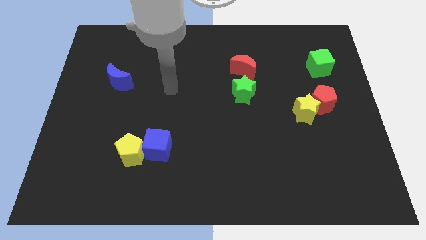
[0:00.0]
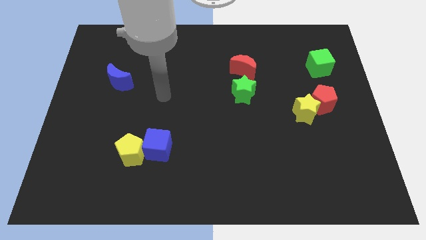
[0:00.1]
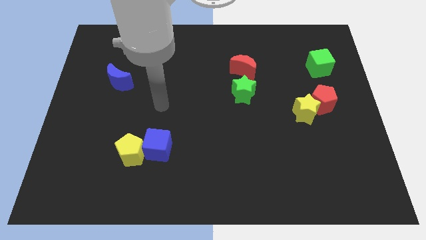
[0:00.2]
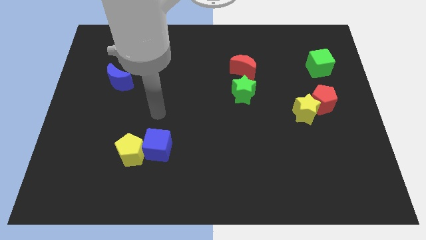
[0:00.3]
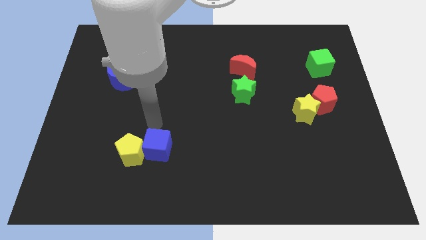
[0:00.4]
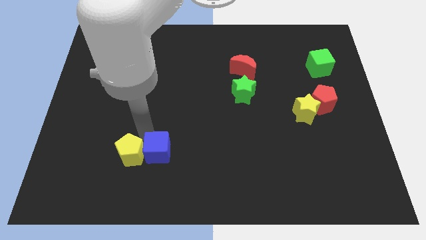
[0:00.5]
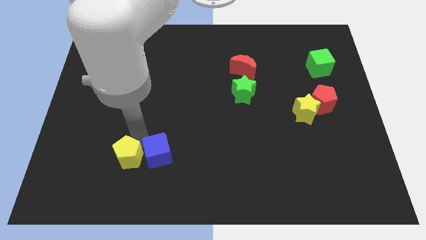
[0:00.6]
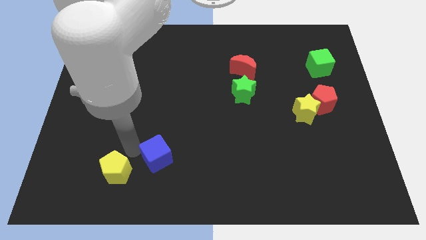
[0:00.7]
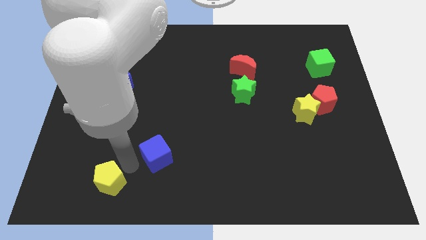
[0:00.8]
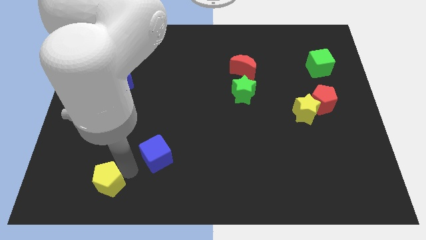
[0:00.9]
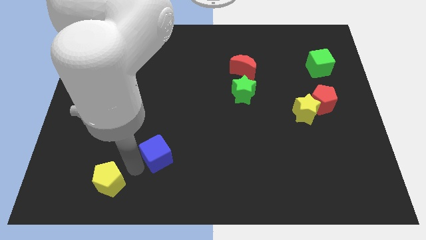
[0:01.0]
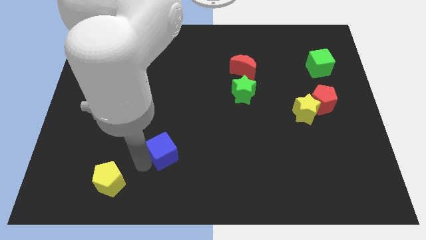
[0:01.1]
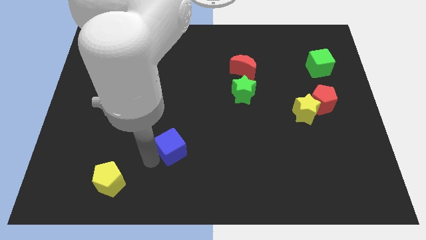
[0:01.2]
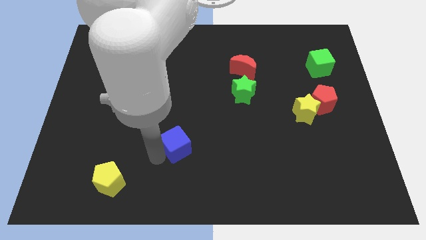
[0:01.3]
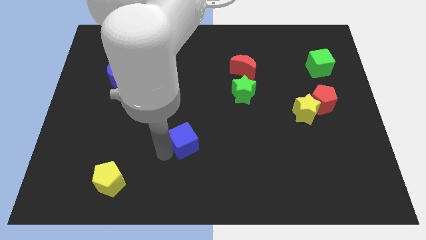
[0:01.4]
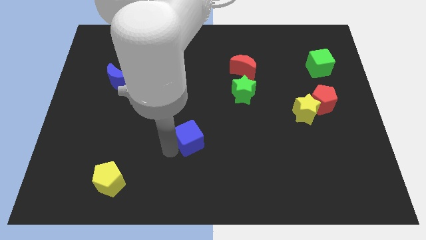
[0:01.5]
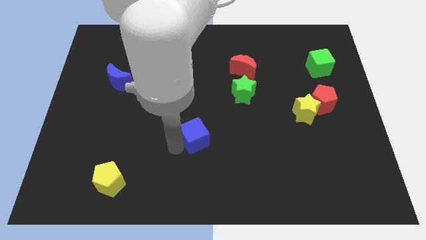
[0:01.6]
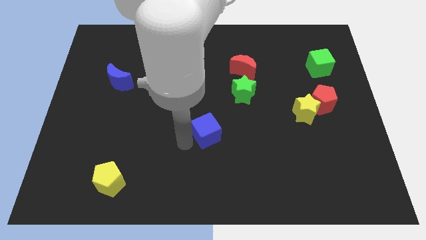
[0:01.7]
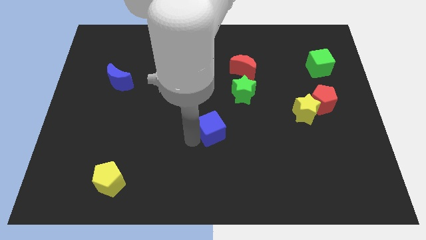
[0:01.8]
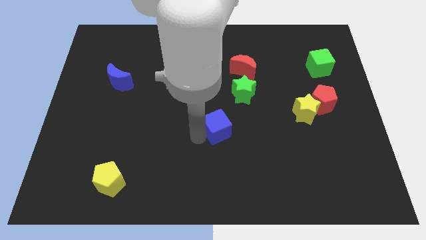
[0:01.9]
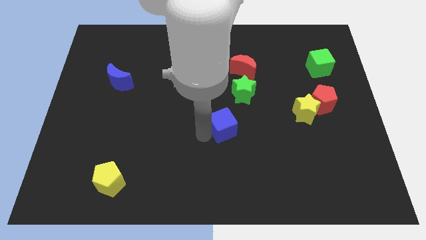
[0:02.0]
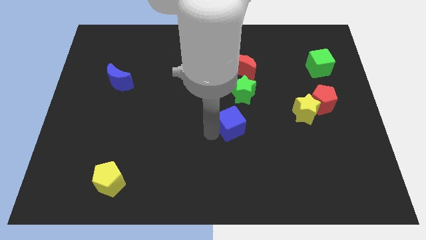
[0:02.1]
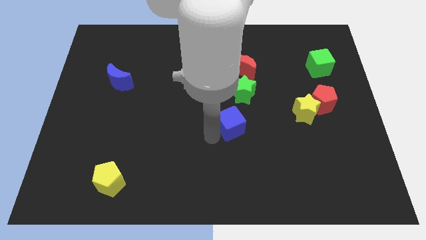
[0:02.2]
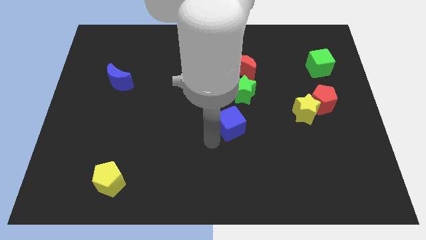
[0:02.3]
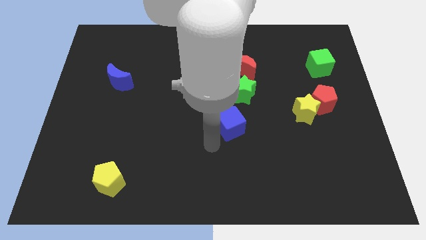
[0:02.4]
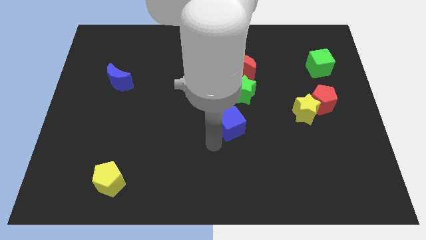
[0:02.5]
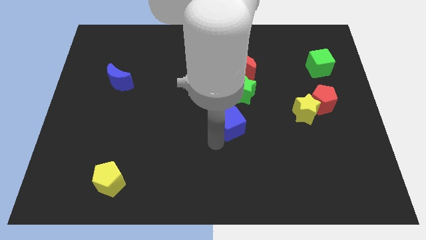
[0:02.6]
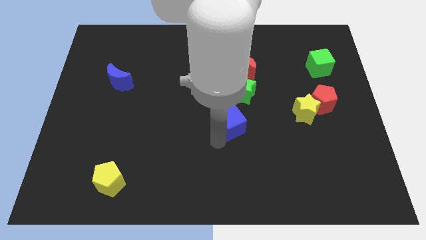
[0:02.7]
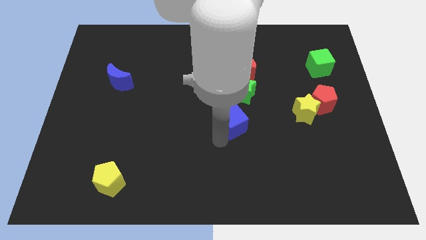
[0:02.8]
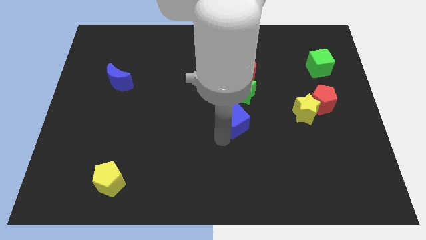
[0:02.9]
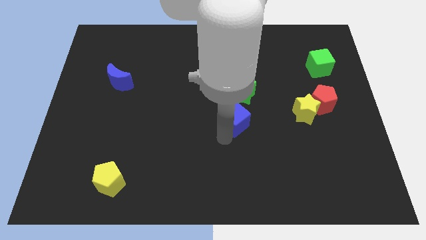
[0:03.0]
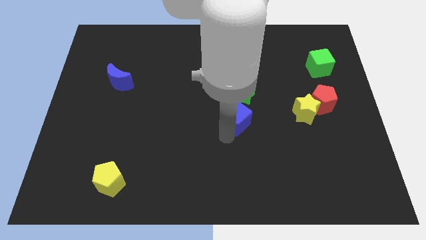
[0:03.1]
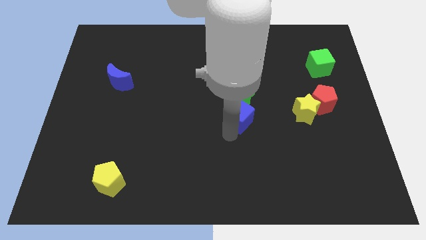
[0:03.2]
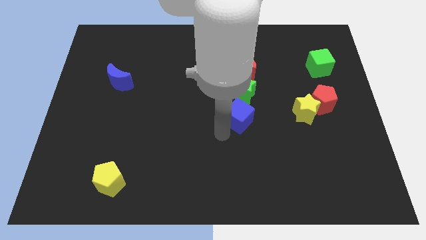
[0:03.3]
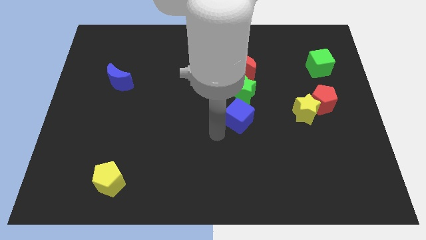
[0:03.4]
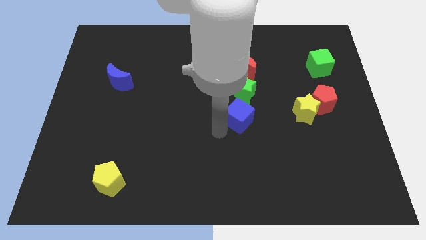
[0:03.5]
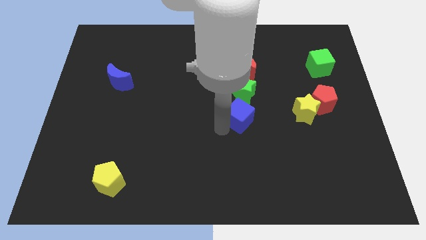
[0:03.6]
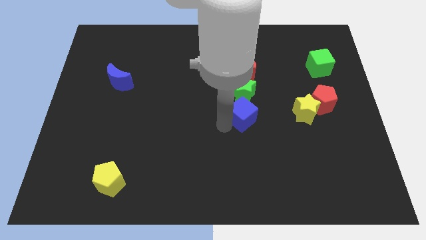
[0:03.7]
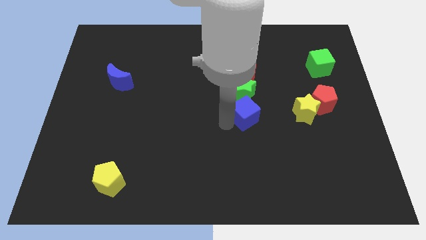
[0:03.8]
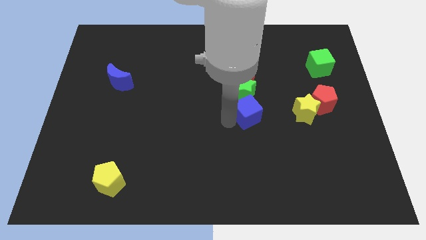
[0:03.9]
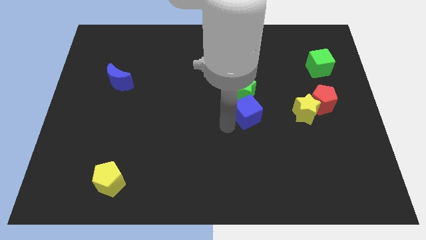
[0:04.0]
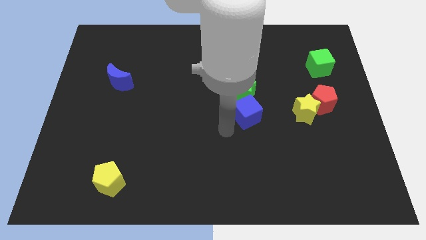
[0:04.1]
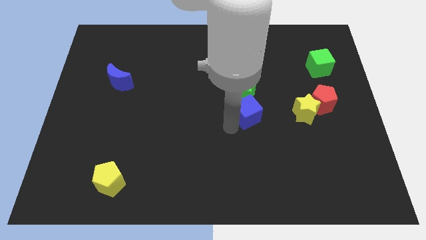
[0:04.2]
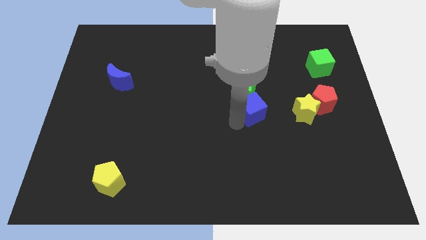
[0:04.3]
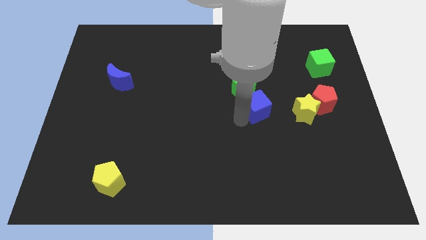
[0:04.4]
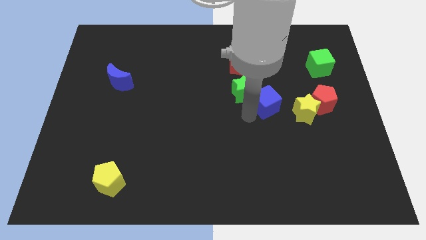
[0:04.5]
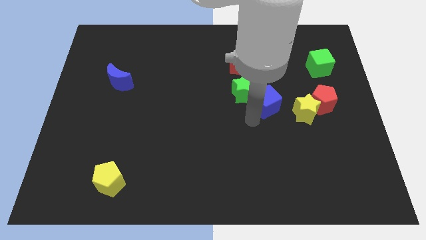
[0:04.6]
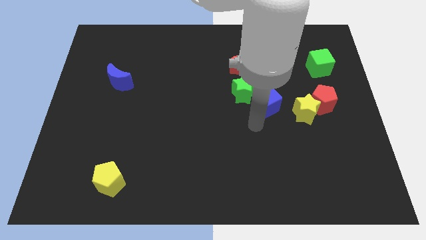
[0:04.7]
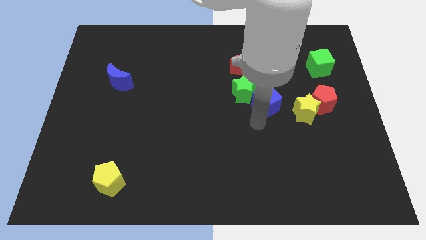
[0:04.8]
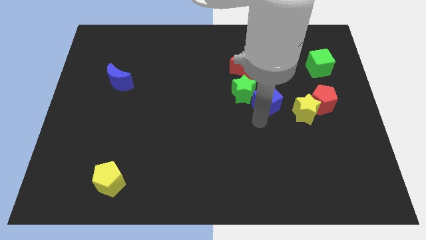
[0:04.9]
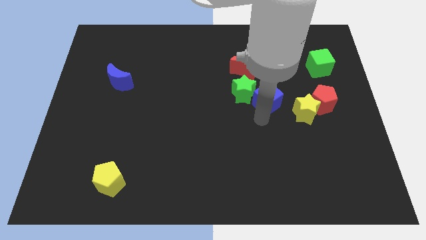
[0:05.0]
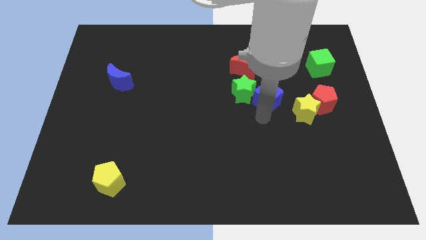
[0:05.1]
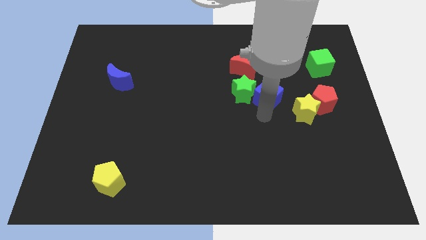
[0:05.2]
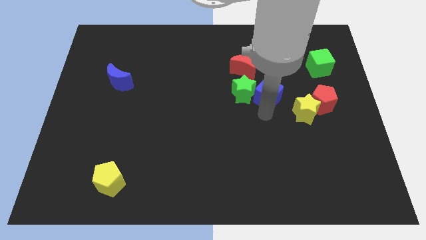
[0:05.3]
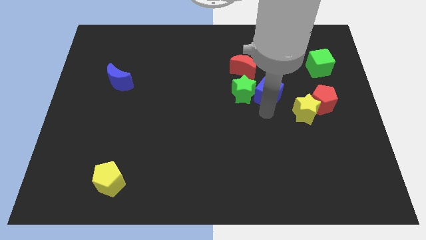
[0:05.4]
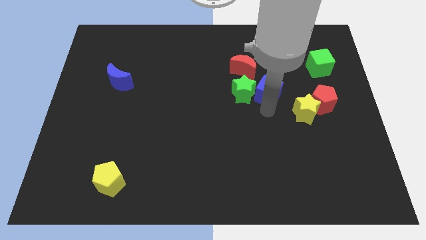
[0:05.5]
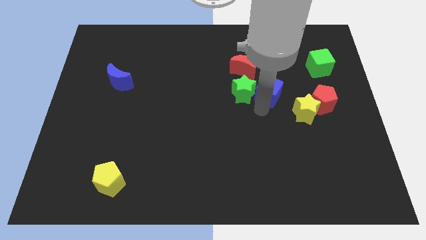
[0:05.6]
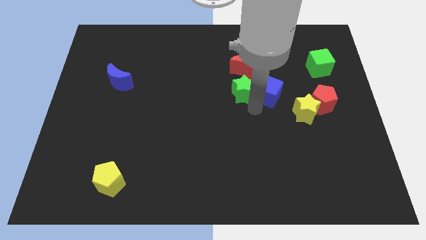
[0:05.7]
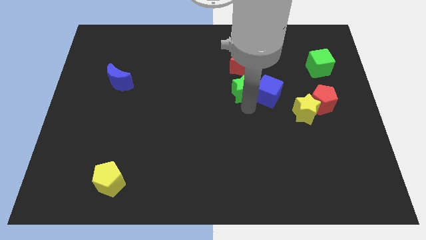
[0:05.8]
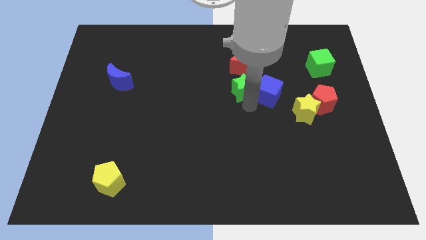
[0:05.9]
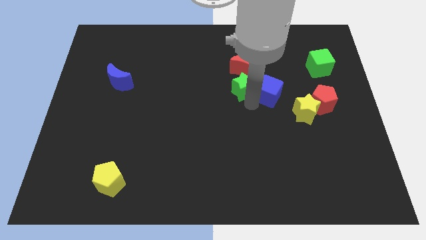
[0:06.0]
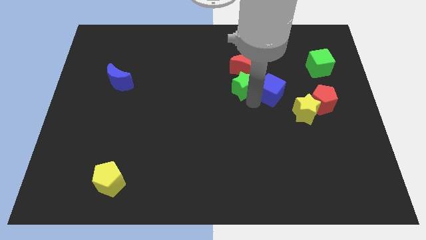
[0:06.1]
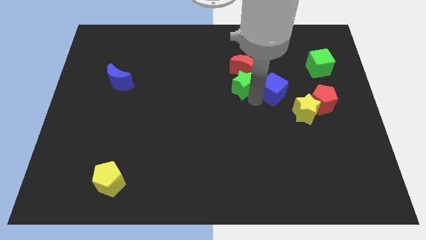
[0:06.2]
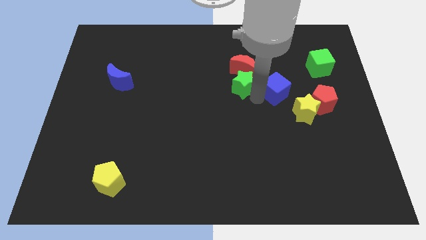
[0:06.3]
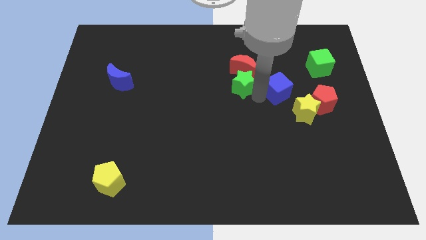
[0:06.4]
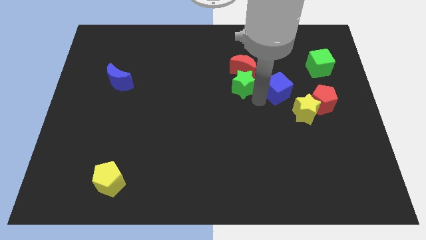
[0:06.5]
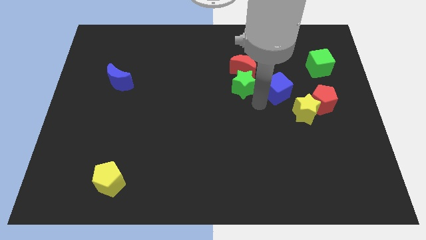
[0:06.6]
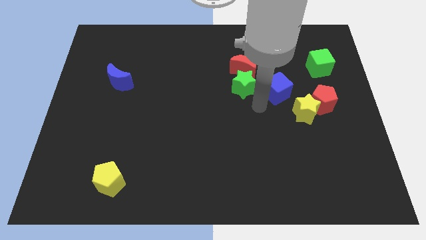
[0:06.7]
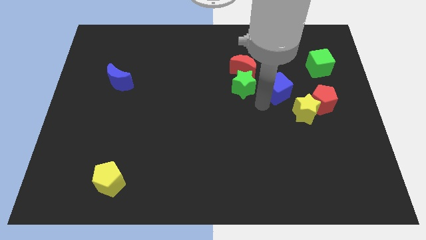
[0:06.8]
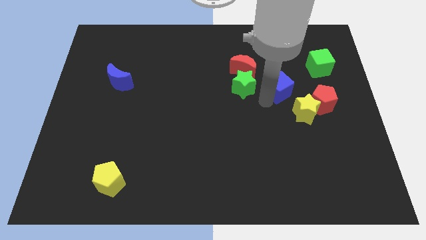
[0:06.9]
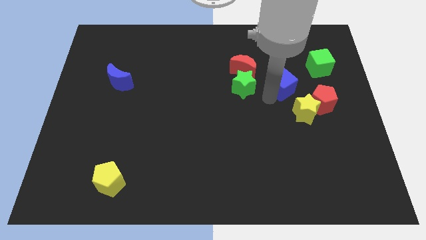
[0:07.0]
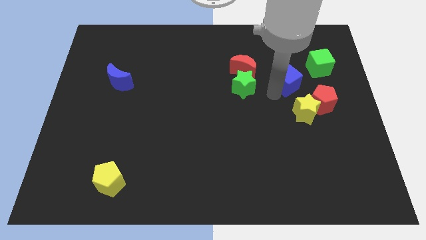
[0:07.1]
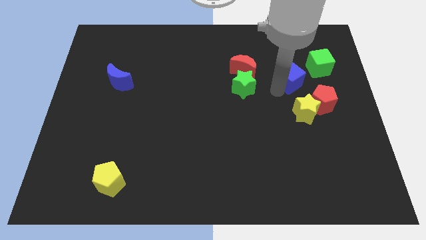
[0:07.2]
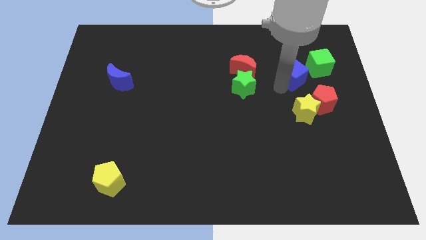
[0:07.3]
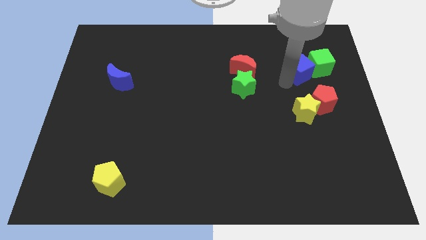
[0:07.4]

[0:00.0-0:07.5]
slide the blue cube next to the green cube
